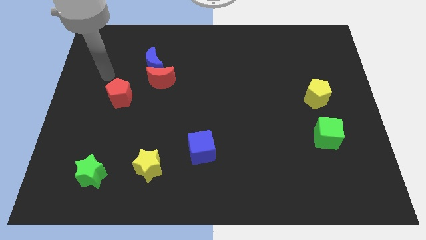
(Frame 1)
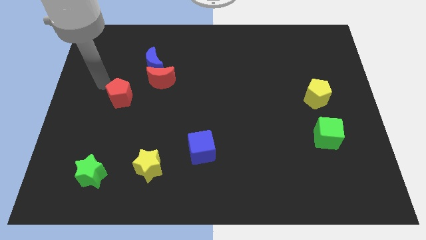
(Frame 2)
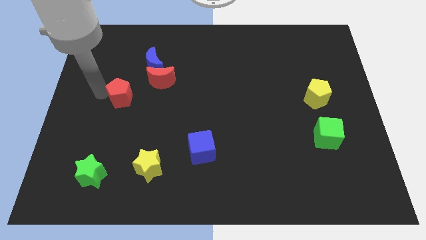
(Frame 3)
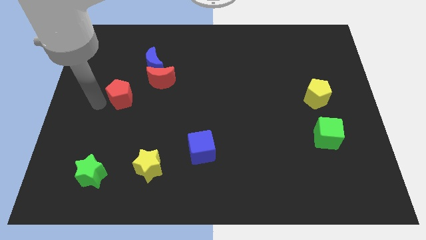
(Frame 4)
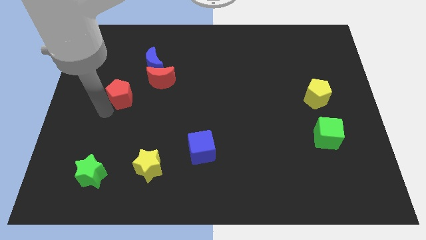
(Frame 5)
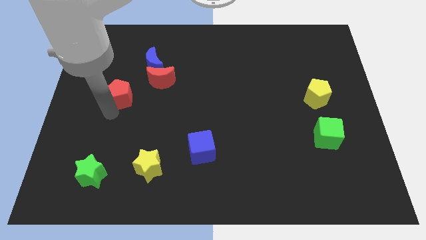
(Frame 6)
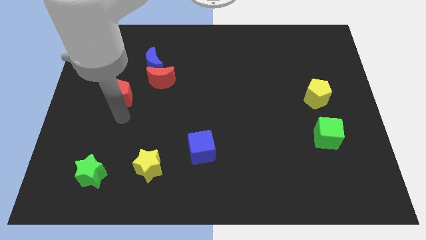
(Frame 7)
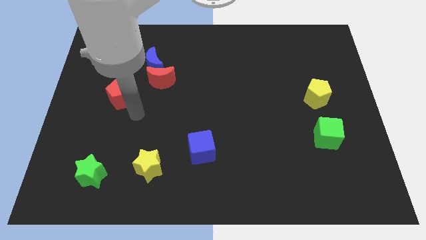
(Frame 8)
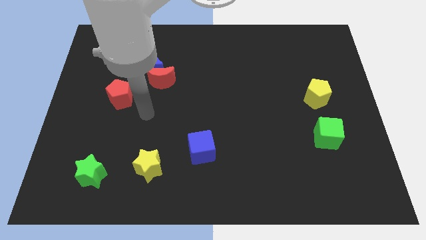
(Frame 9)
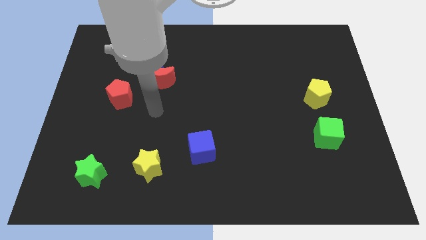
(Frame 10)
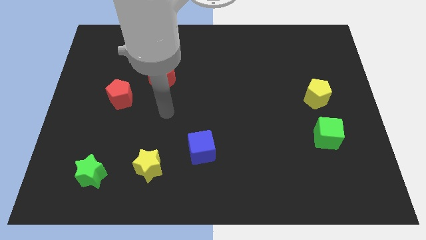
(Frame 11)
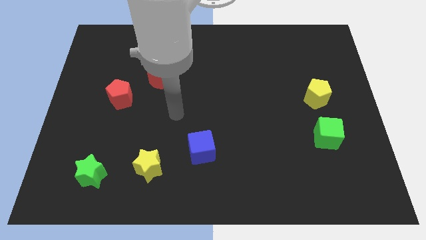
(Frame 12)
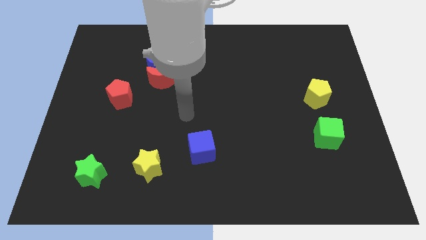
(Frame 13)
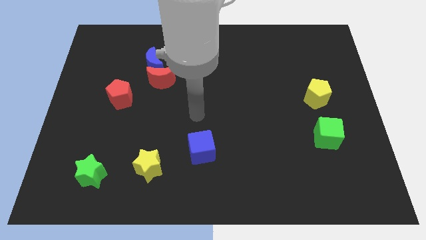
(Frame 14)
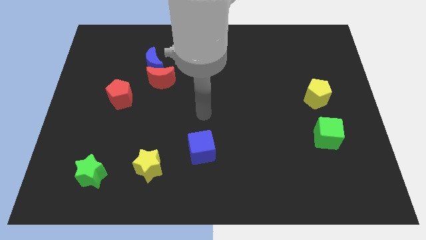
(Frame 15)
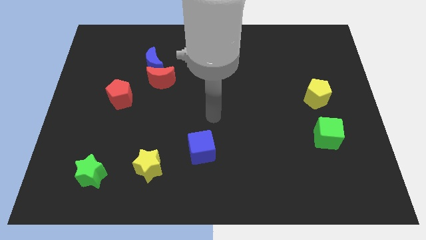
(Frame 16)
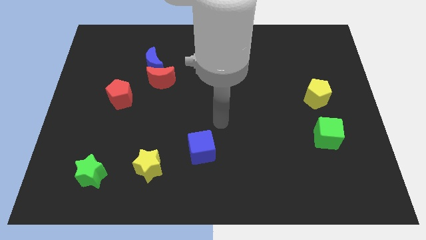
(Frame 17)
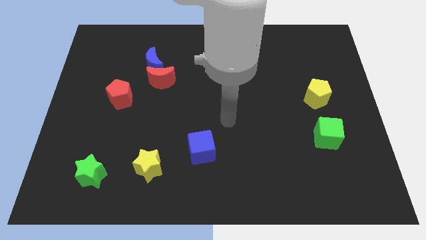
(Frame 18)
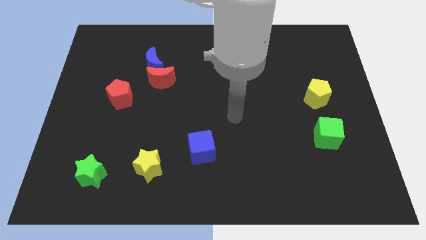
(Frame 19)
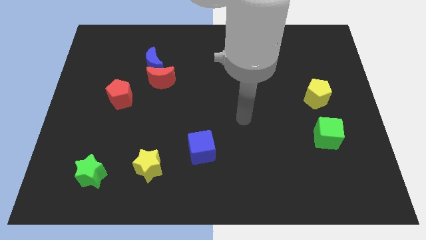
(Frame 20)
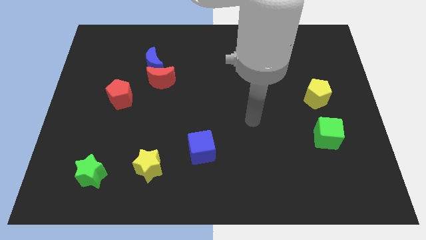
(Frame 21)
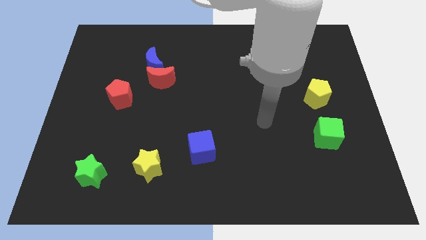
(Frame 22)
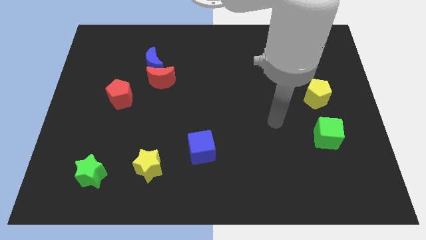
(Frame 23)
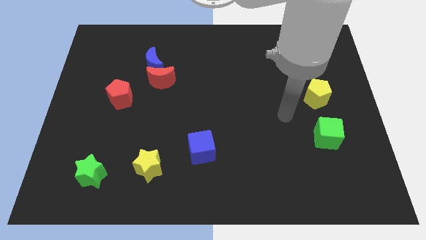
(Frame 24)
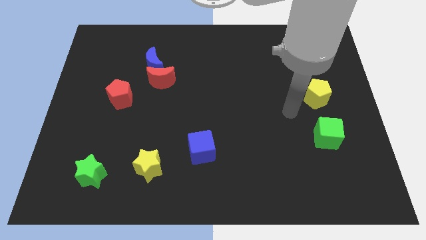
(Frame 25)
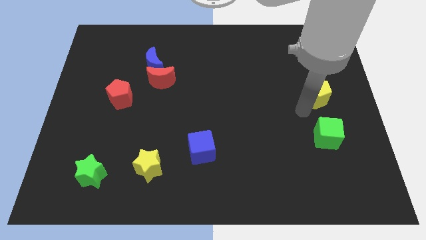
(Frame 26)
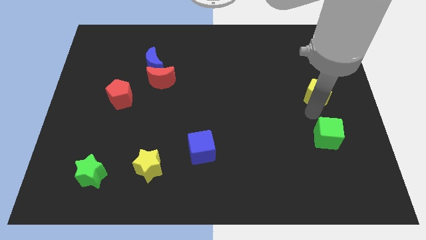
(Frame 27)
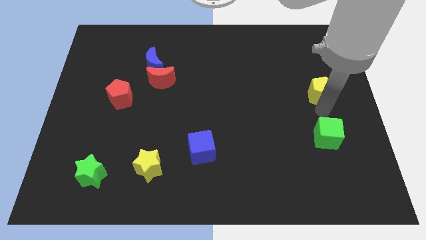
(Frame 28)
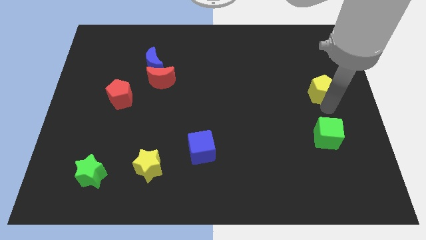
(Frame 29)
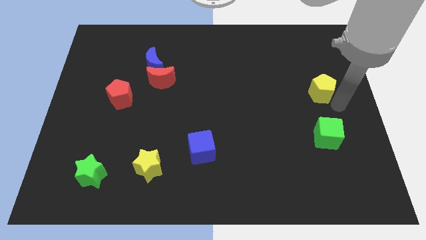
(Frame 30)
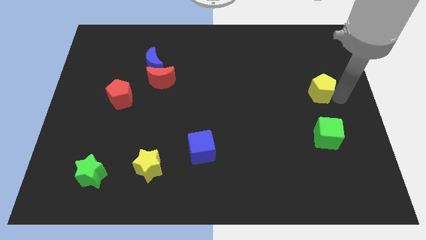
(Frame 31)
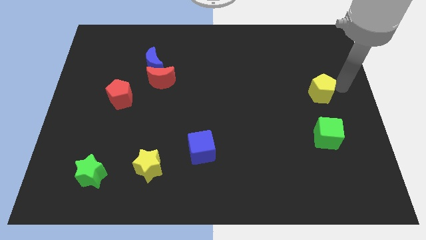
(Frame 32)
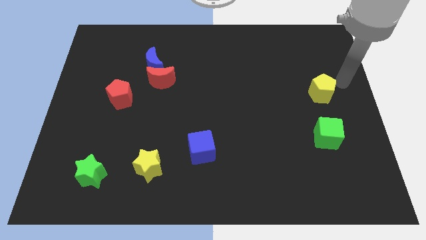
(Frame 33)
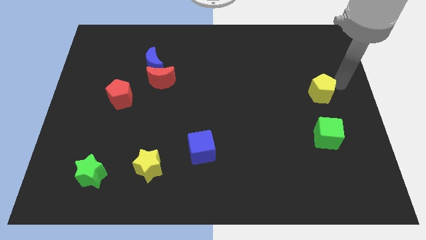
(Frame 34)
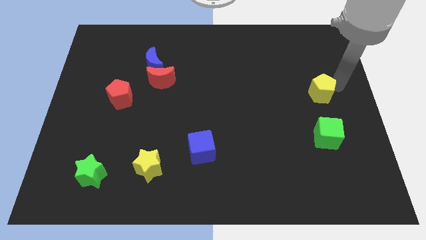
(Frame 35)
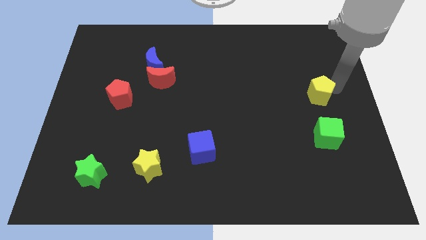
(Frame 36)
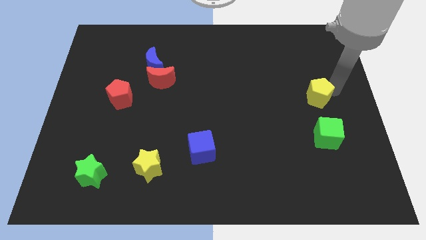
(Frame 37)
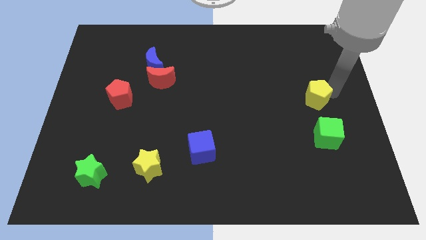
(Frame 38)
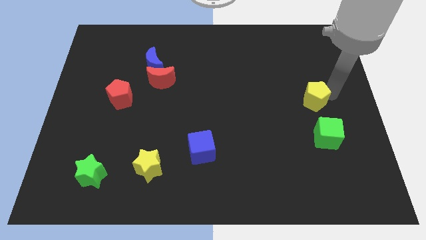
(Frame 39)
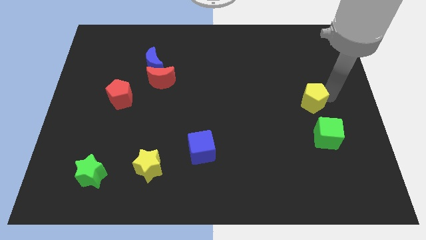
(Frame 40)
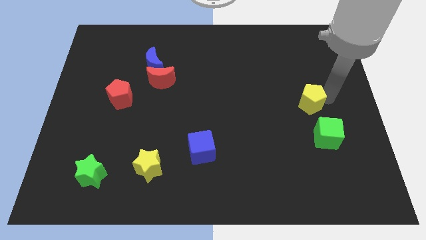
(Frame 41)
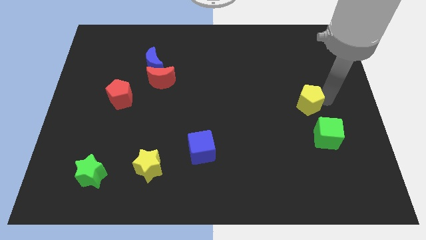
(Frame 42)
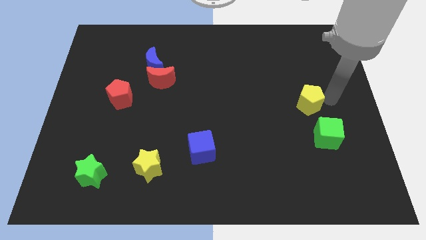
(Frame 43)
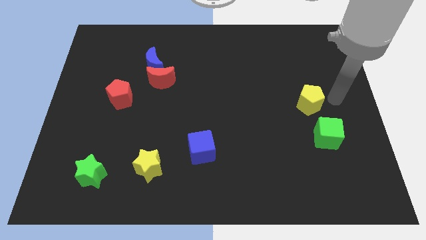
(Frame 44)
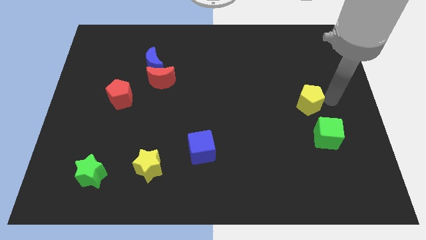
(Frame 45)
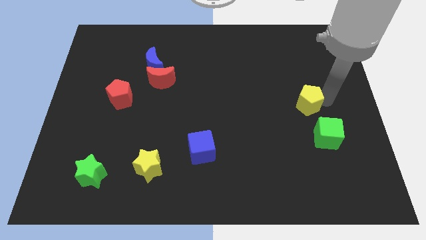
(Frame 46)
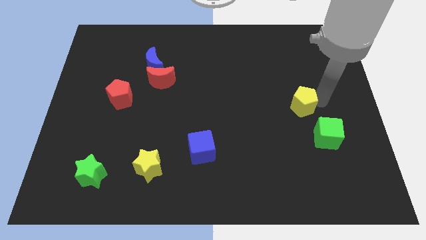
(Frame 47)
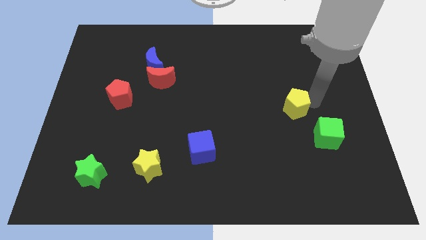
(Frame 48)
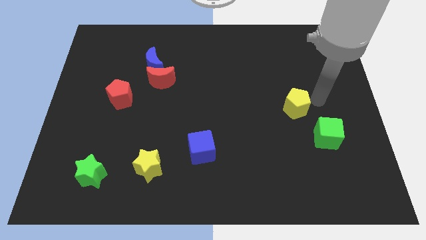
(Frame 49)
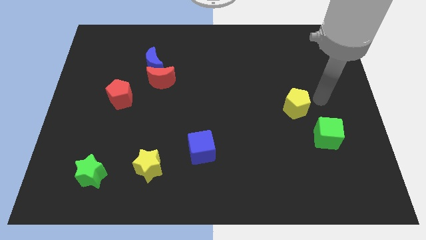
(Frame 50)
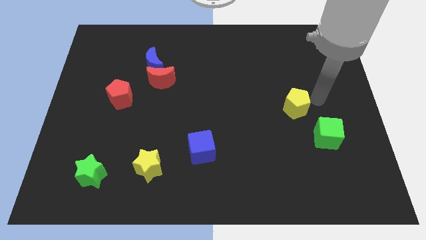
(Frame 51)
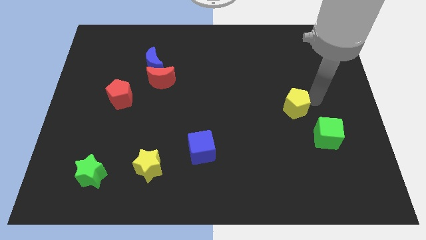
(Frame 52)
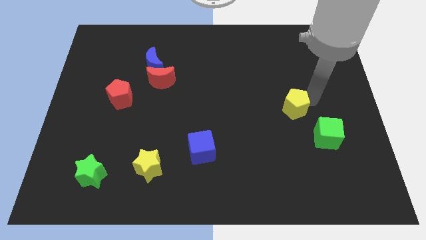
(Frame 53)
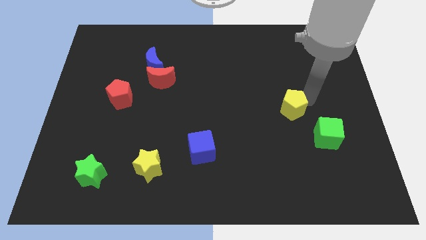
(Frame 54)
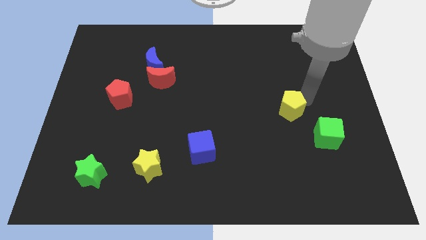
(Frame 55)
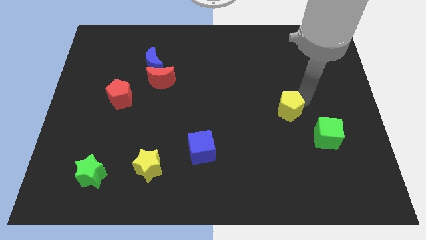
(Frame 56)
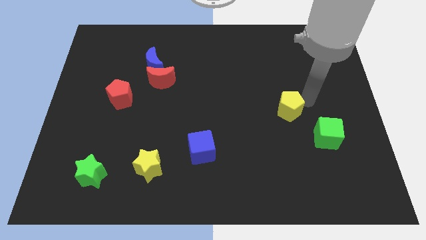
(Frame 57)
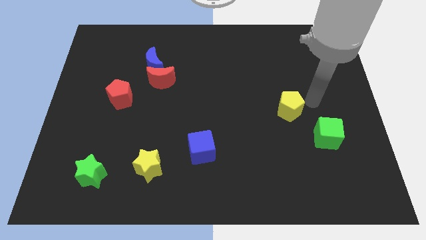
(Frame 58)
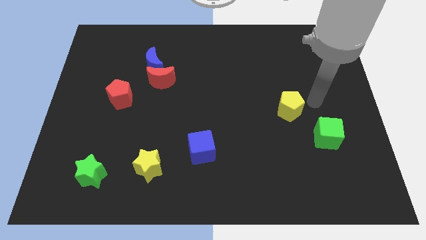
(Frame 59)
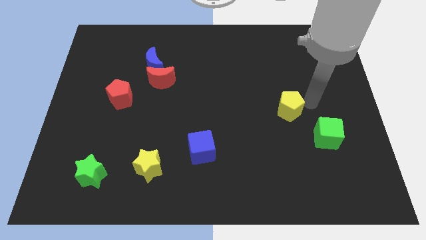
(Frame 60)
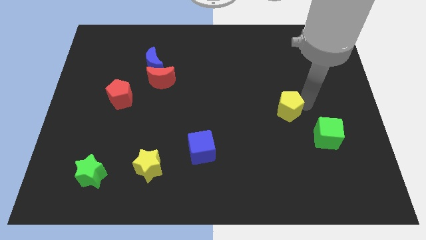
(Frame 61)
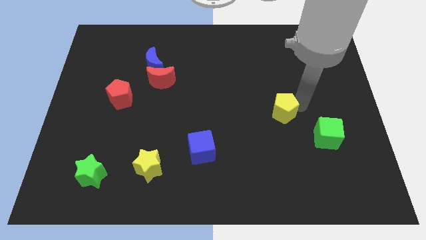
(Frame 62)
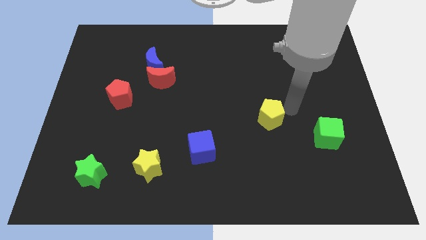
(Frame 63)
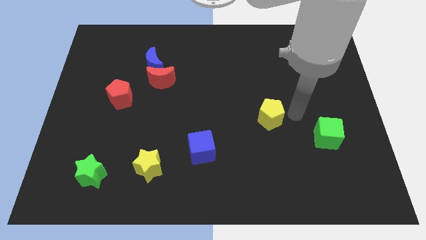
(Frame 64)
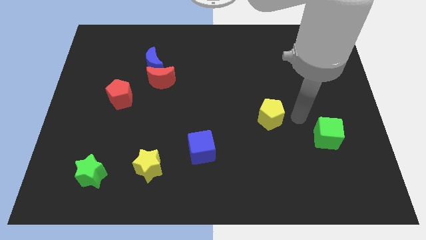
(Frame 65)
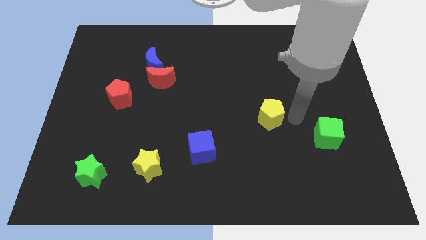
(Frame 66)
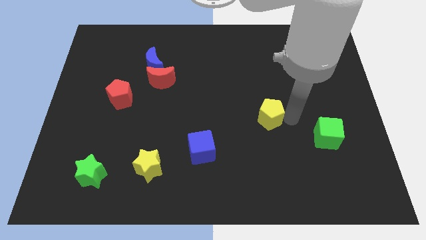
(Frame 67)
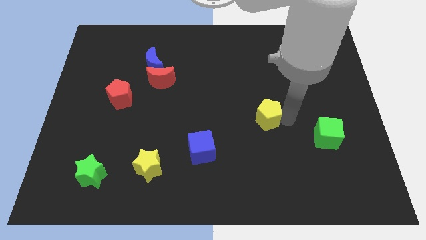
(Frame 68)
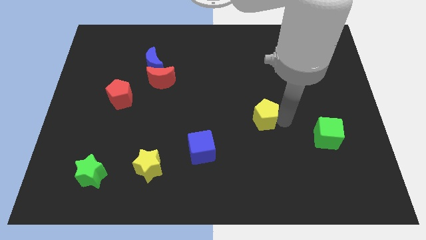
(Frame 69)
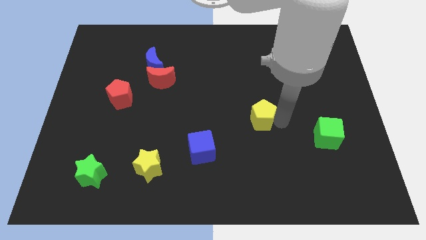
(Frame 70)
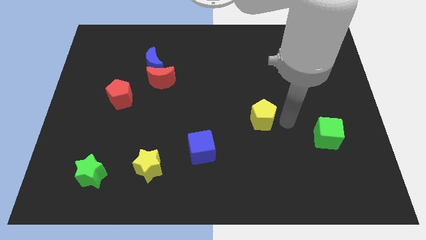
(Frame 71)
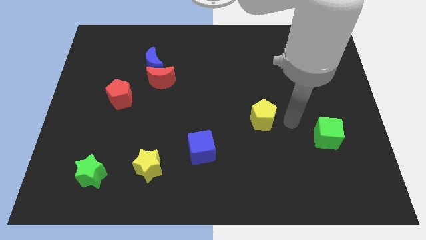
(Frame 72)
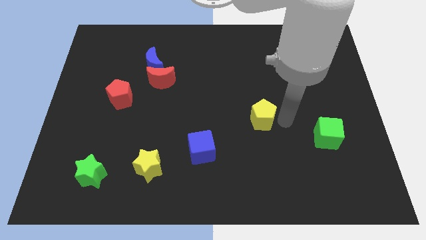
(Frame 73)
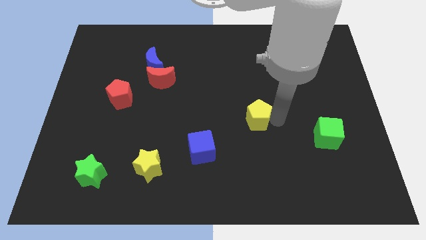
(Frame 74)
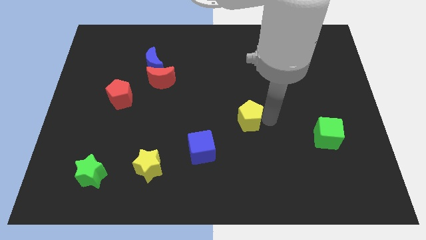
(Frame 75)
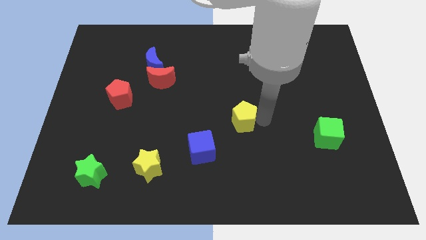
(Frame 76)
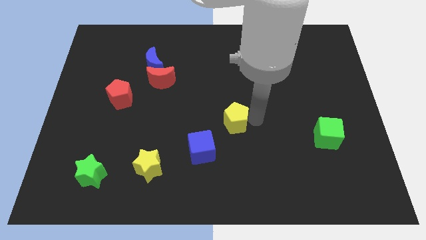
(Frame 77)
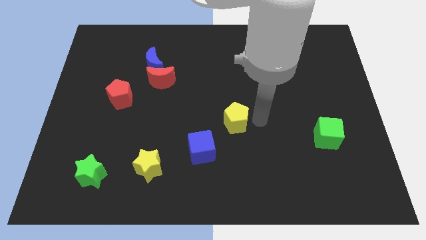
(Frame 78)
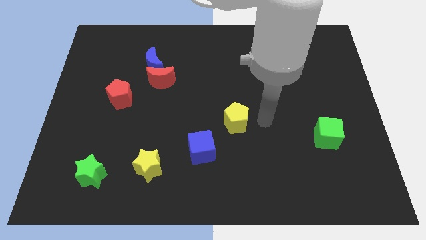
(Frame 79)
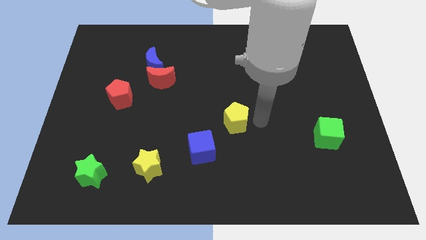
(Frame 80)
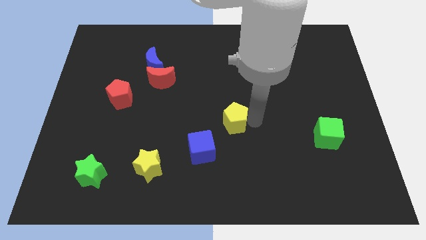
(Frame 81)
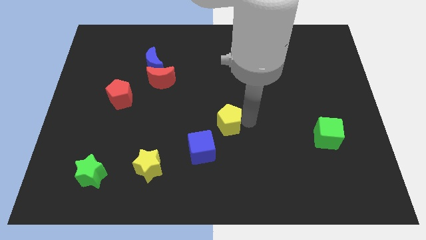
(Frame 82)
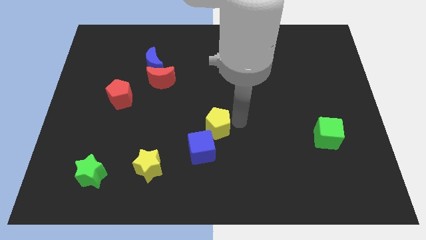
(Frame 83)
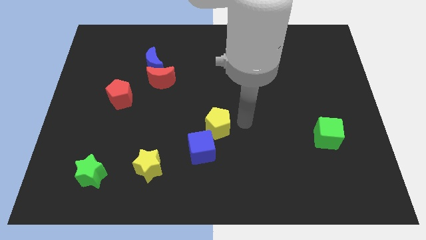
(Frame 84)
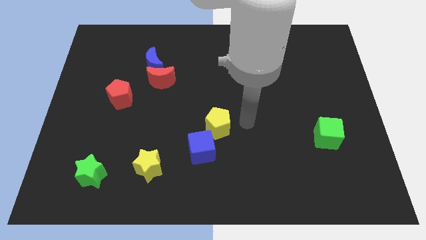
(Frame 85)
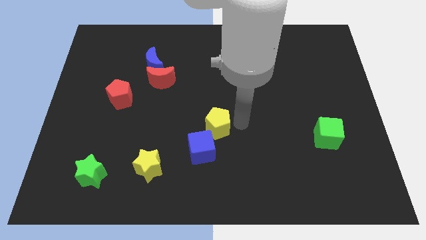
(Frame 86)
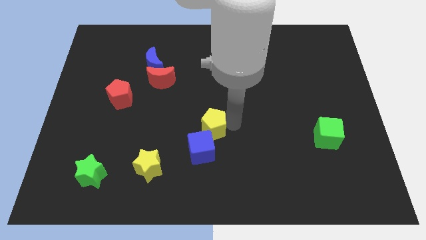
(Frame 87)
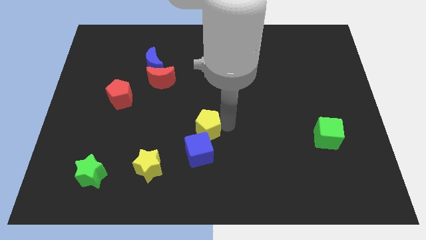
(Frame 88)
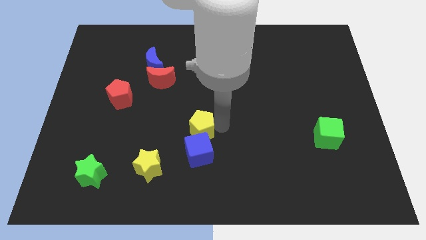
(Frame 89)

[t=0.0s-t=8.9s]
push the yellow pentagon to the top left of the blue cube
